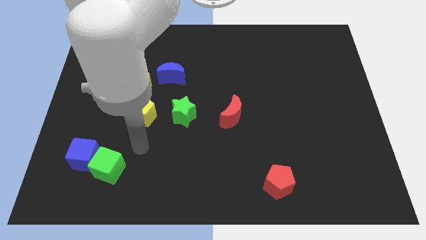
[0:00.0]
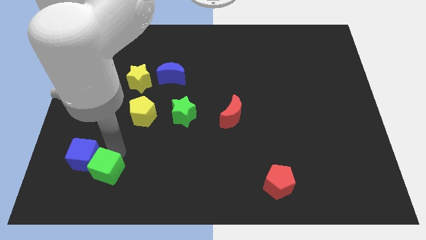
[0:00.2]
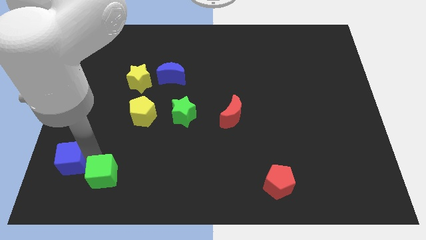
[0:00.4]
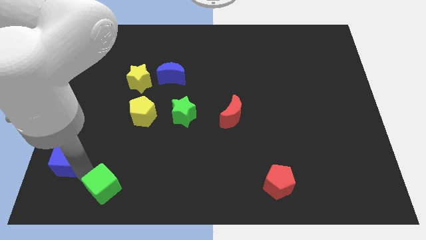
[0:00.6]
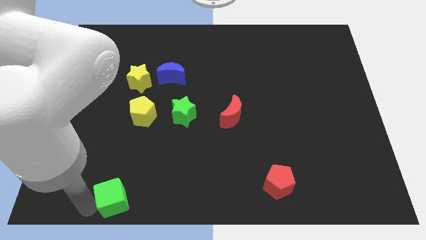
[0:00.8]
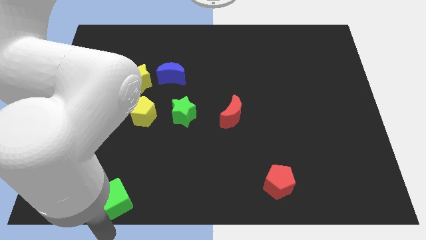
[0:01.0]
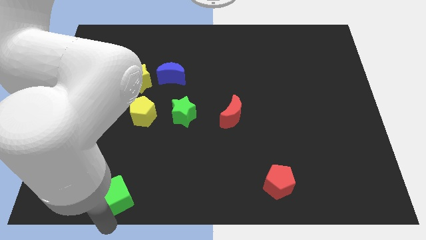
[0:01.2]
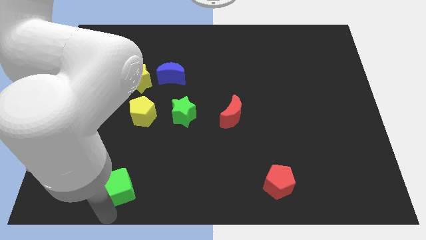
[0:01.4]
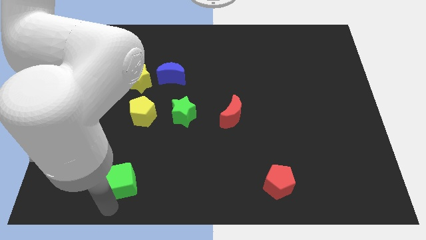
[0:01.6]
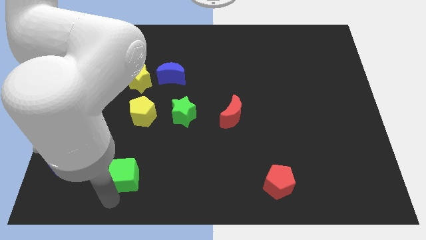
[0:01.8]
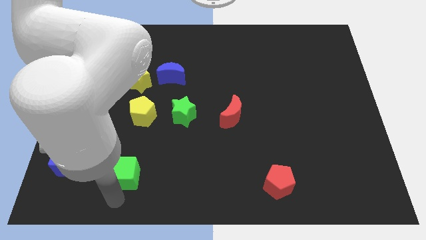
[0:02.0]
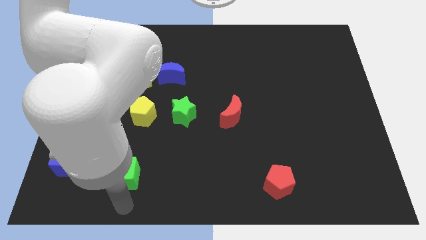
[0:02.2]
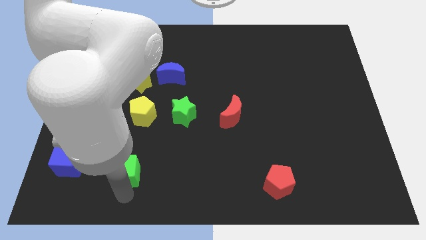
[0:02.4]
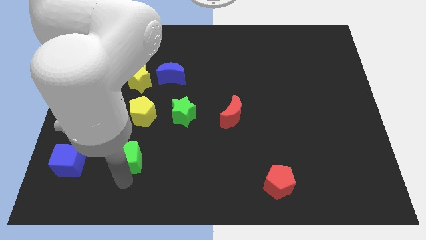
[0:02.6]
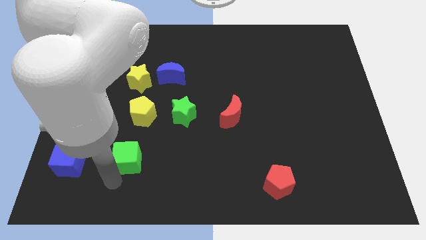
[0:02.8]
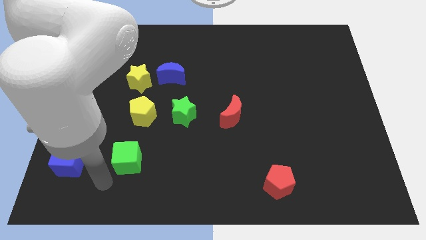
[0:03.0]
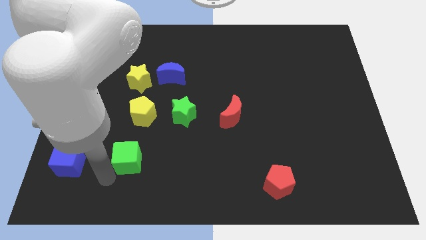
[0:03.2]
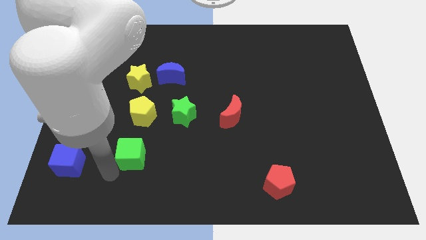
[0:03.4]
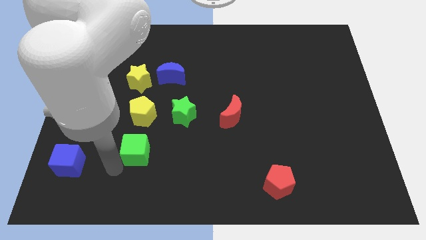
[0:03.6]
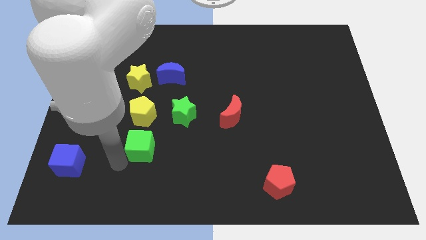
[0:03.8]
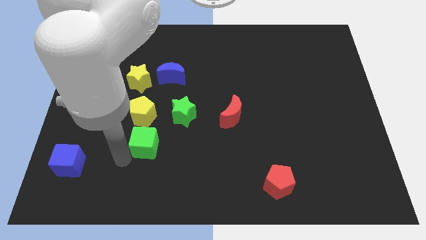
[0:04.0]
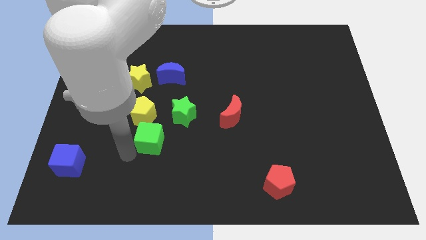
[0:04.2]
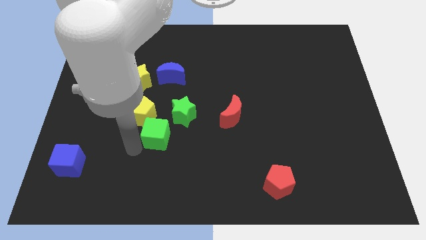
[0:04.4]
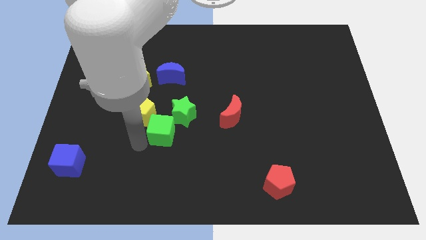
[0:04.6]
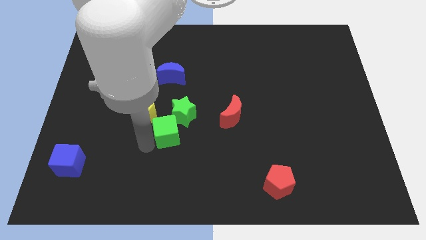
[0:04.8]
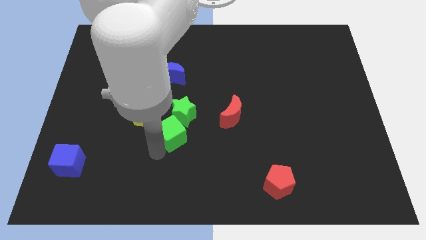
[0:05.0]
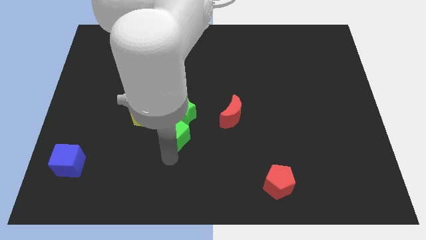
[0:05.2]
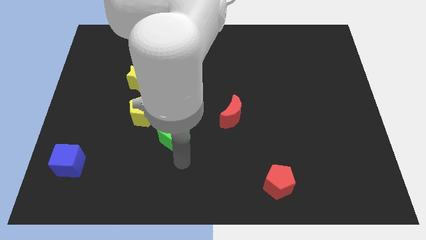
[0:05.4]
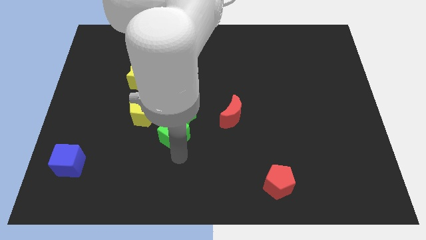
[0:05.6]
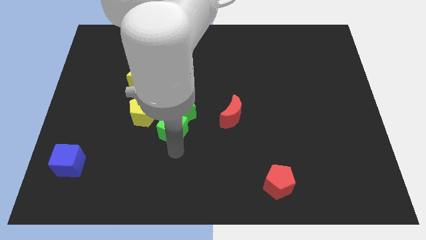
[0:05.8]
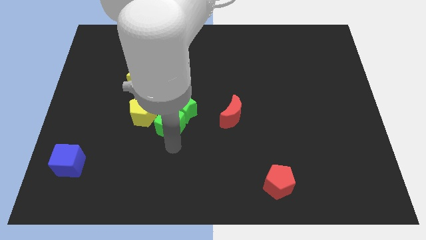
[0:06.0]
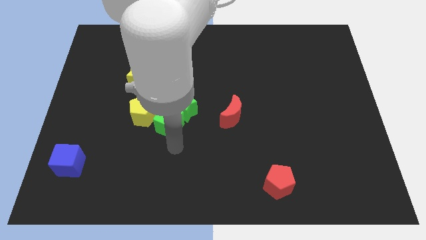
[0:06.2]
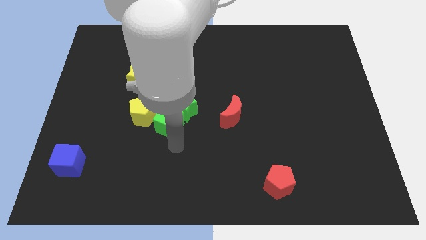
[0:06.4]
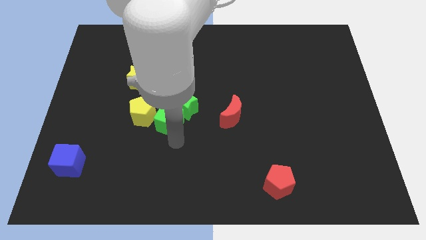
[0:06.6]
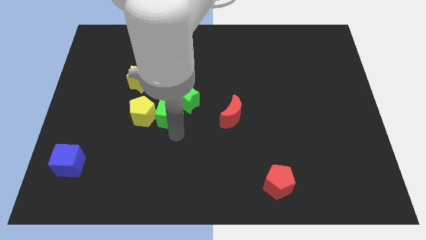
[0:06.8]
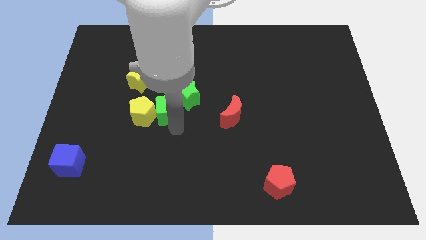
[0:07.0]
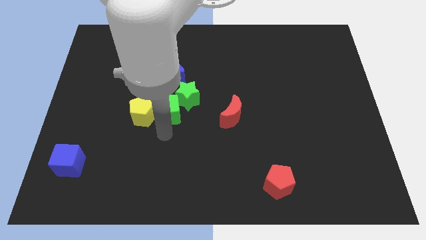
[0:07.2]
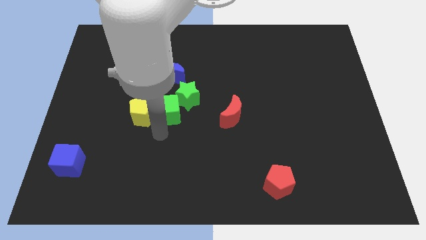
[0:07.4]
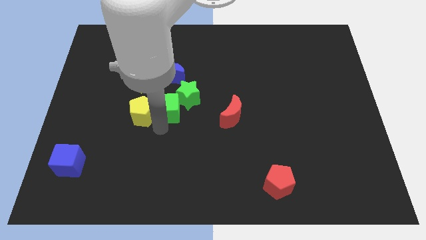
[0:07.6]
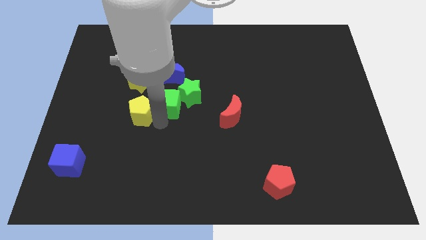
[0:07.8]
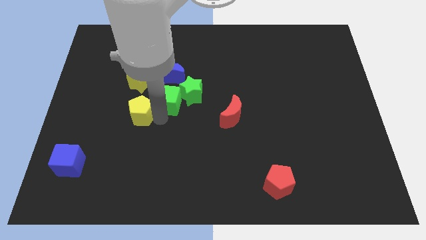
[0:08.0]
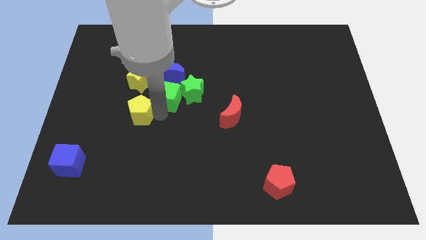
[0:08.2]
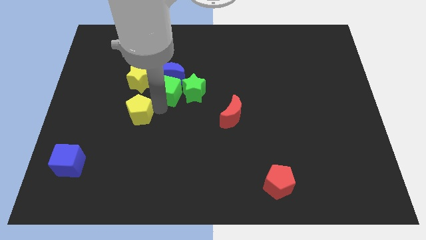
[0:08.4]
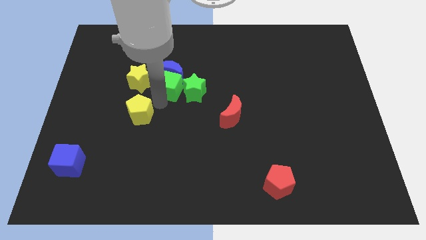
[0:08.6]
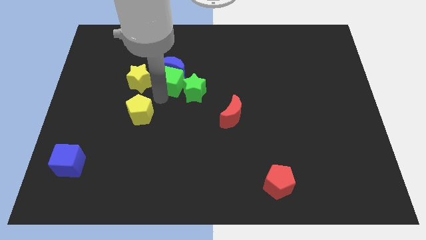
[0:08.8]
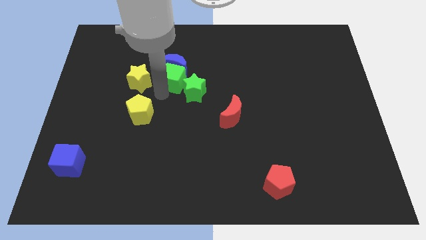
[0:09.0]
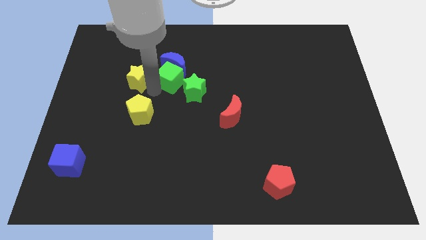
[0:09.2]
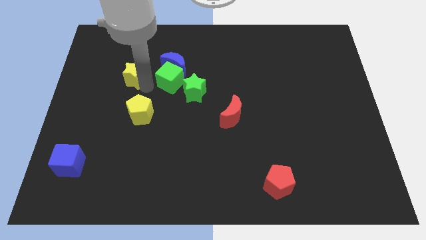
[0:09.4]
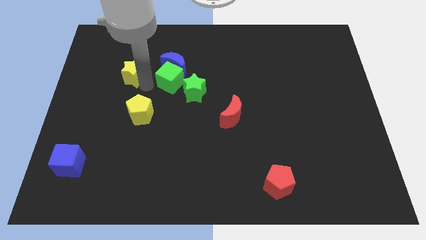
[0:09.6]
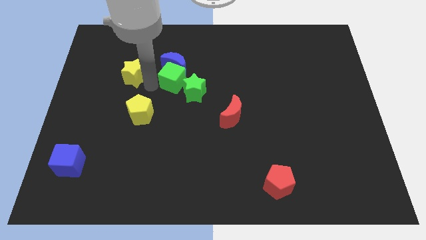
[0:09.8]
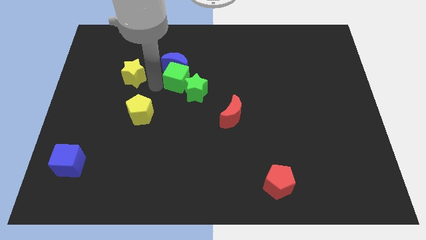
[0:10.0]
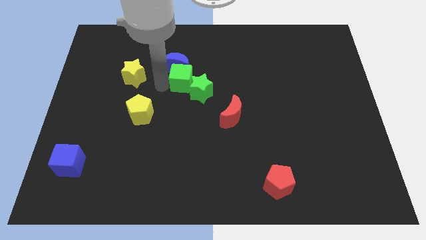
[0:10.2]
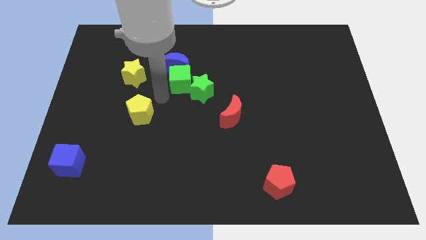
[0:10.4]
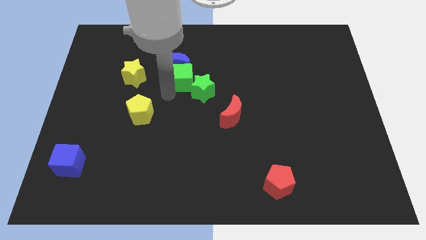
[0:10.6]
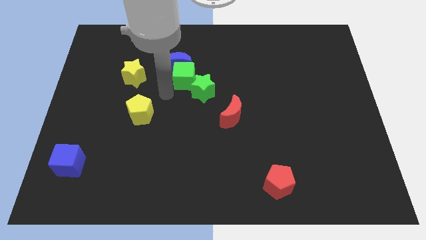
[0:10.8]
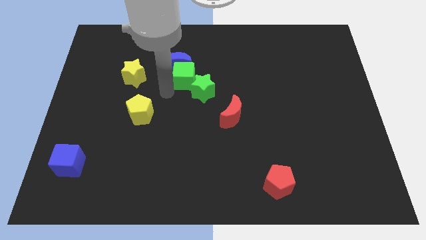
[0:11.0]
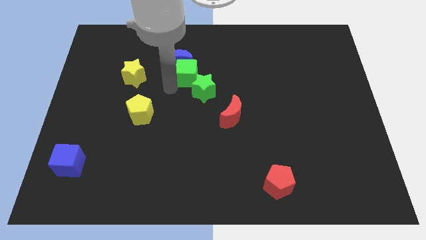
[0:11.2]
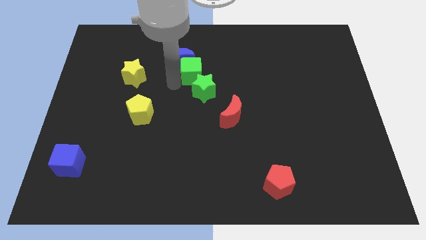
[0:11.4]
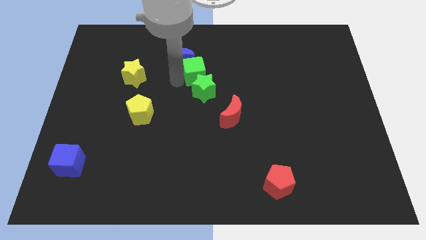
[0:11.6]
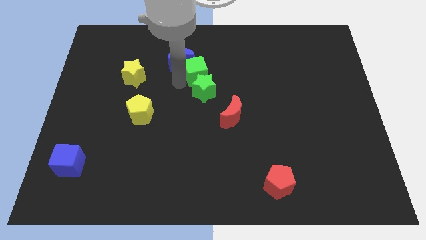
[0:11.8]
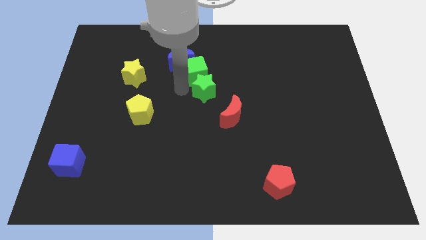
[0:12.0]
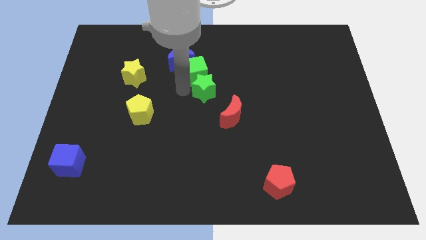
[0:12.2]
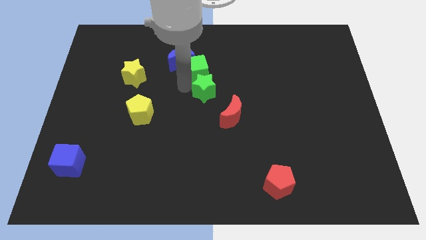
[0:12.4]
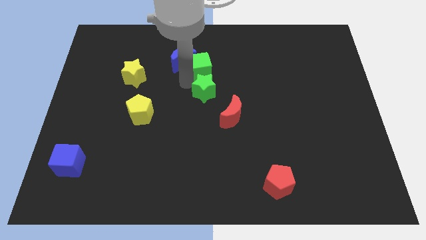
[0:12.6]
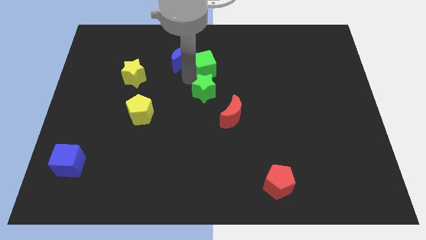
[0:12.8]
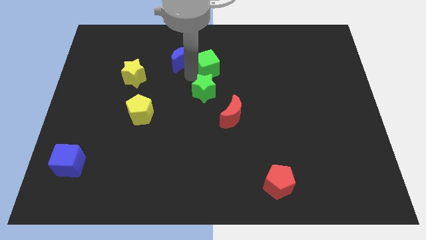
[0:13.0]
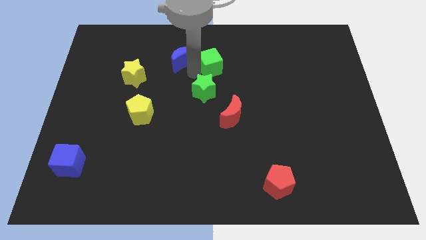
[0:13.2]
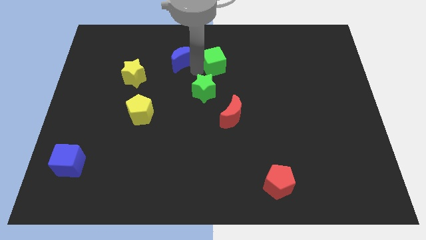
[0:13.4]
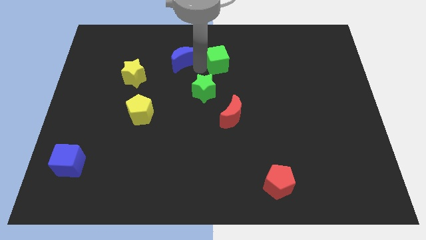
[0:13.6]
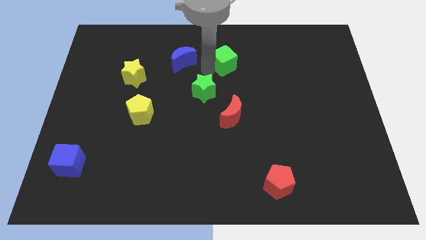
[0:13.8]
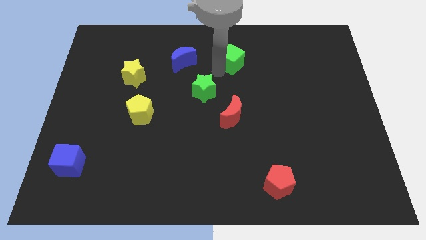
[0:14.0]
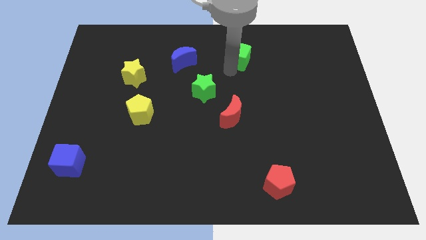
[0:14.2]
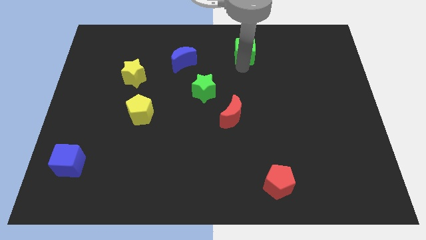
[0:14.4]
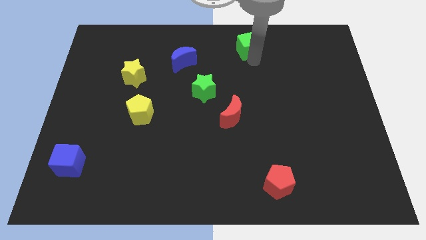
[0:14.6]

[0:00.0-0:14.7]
slide the green cube to the top
